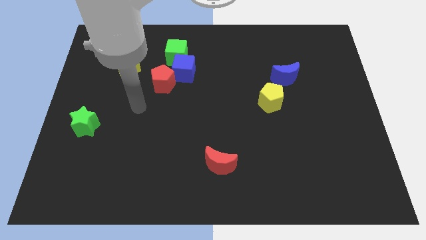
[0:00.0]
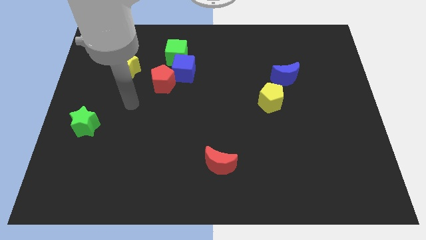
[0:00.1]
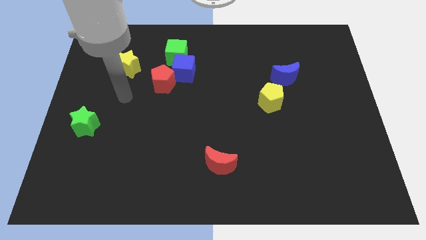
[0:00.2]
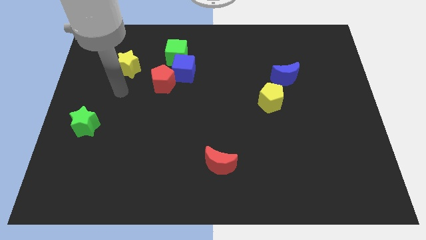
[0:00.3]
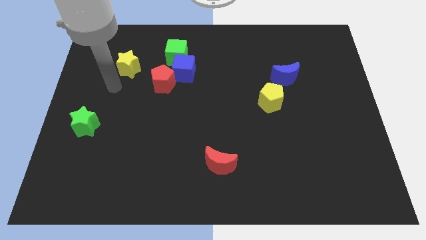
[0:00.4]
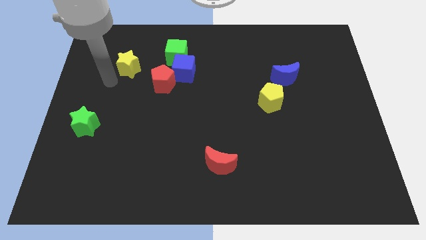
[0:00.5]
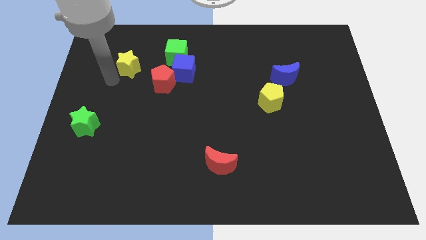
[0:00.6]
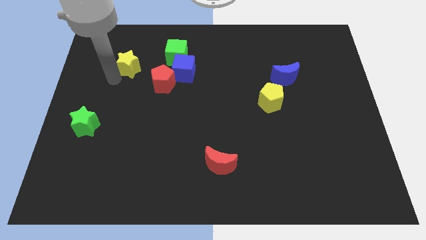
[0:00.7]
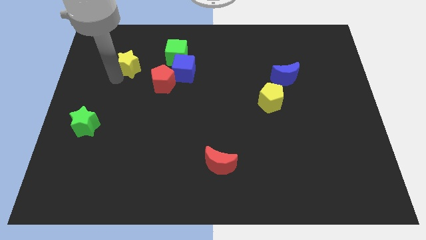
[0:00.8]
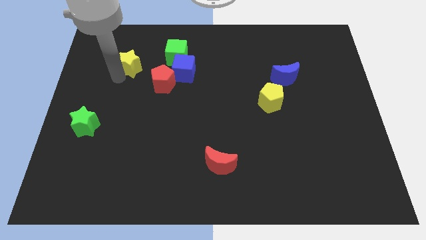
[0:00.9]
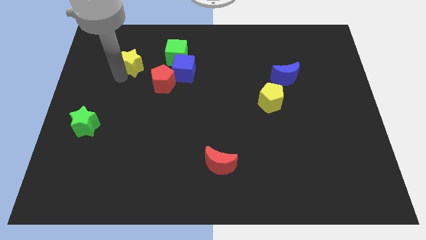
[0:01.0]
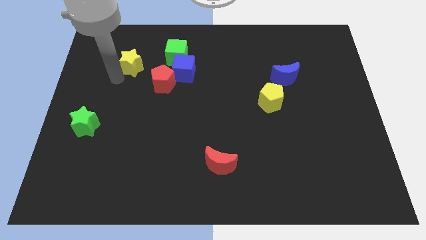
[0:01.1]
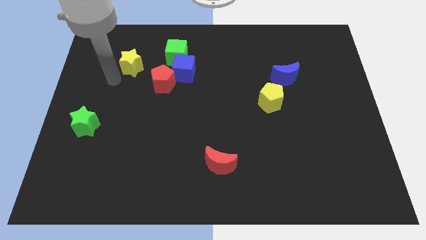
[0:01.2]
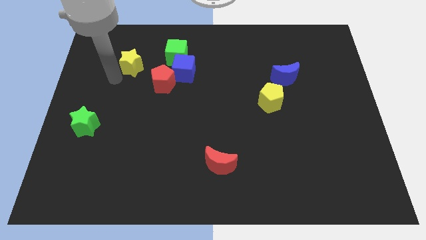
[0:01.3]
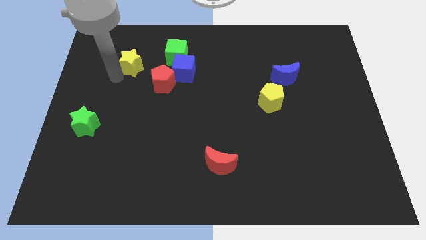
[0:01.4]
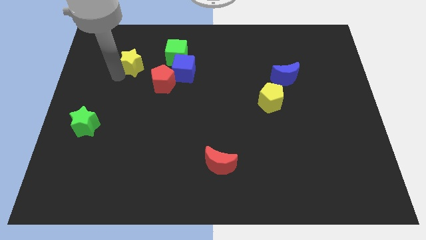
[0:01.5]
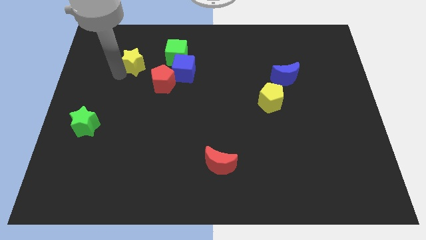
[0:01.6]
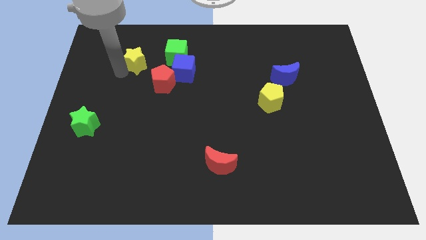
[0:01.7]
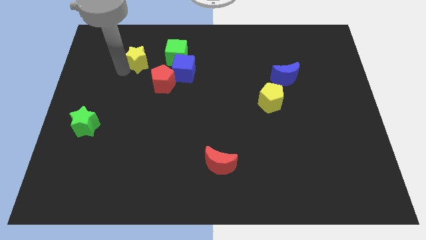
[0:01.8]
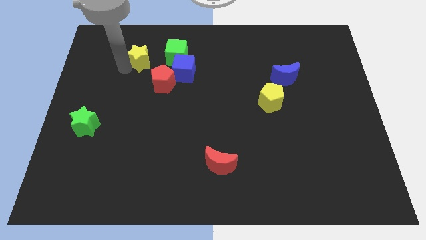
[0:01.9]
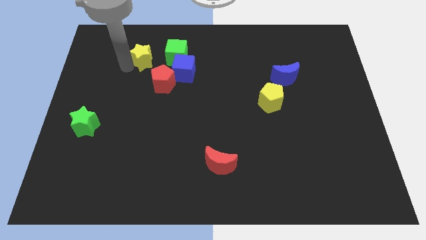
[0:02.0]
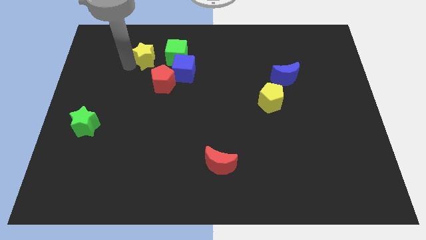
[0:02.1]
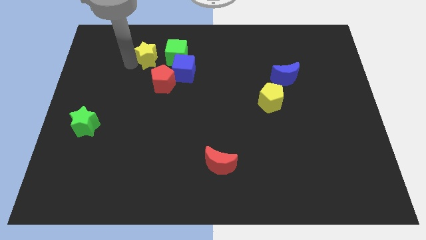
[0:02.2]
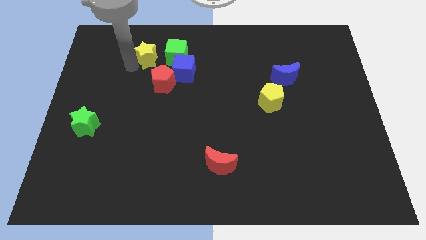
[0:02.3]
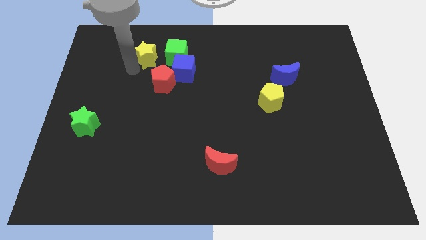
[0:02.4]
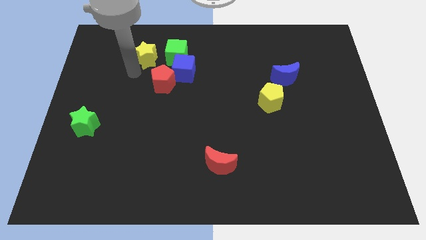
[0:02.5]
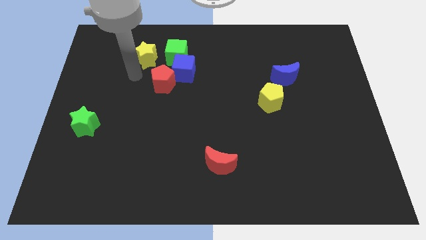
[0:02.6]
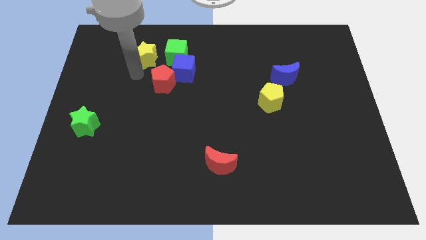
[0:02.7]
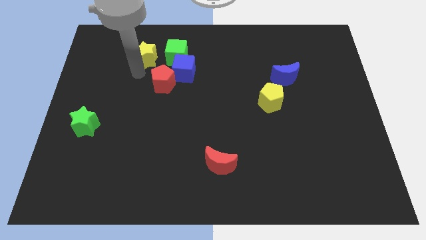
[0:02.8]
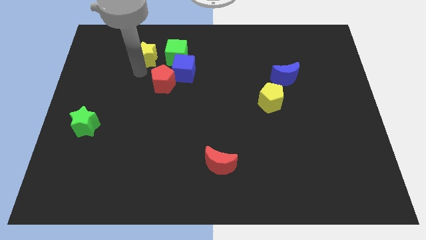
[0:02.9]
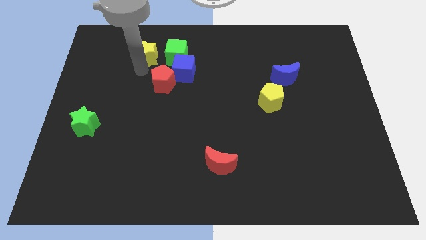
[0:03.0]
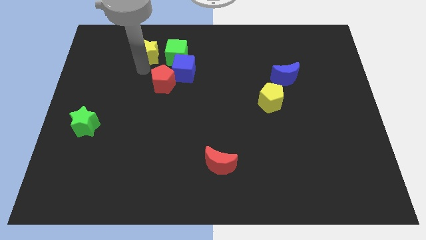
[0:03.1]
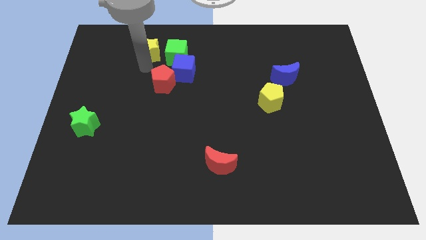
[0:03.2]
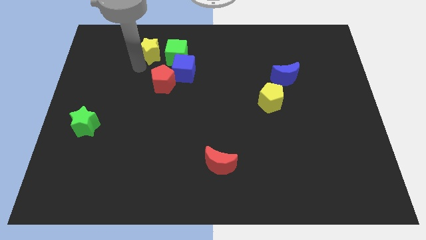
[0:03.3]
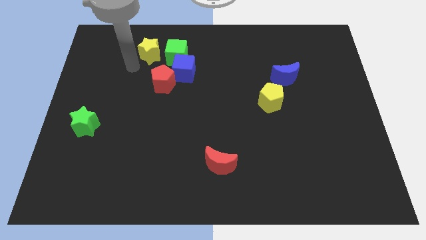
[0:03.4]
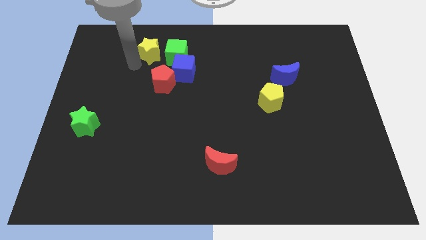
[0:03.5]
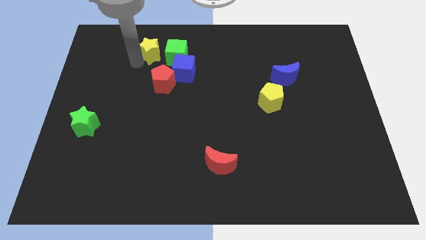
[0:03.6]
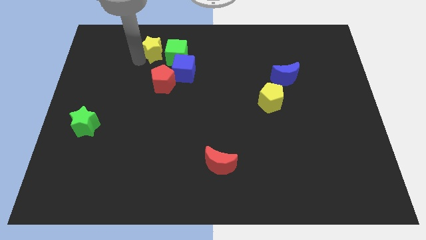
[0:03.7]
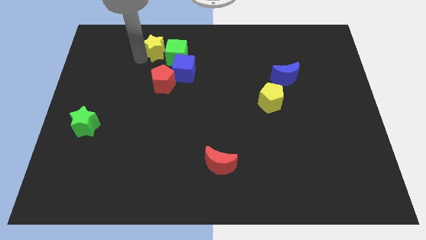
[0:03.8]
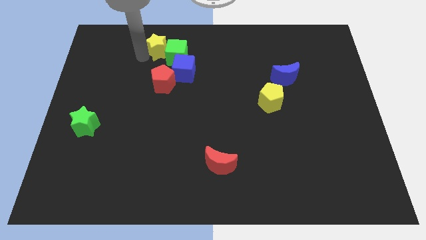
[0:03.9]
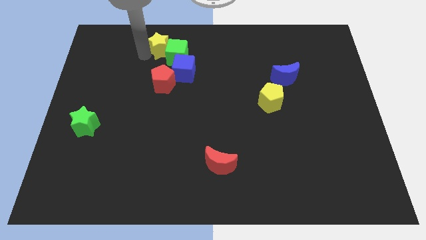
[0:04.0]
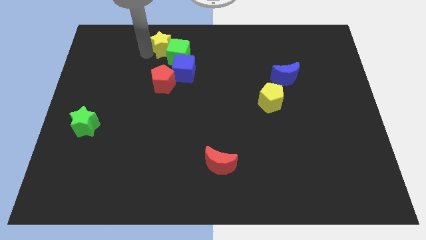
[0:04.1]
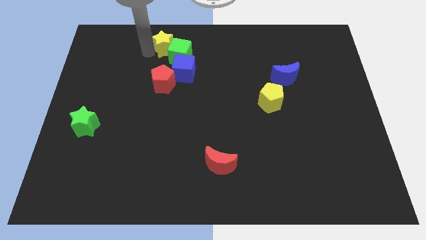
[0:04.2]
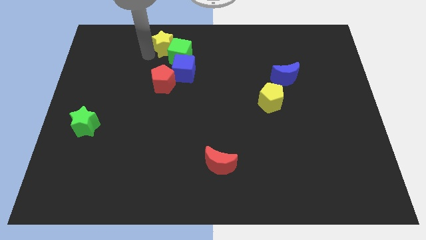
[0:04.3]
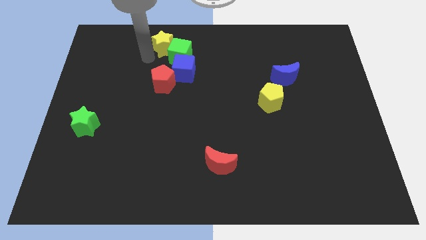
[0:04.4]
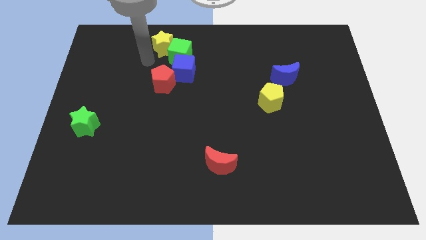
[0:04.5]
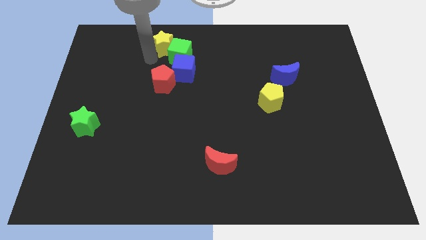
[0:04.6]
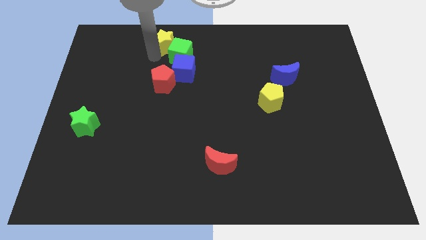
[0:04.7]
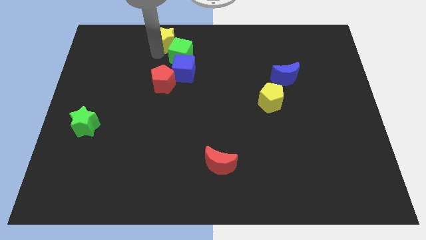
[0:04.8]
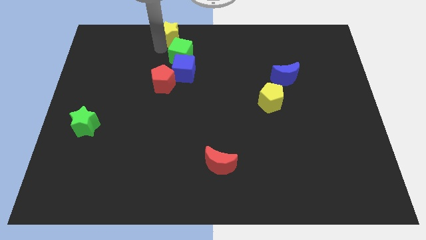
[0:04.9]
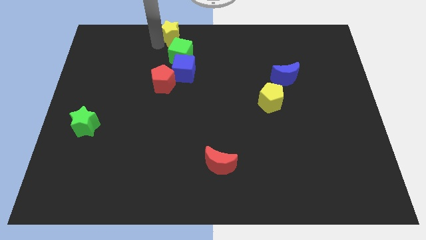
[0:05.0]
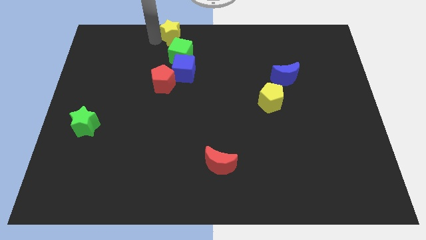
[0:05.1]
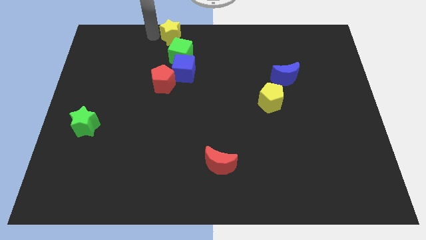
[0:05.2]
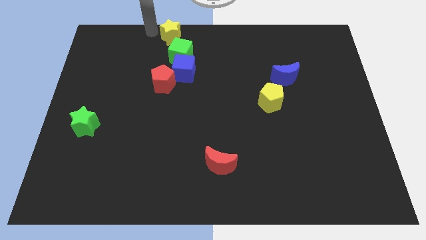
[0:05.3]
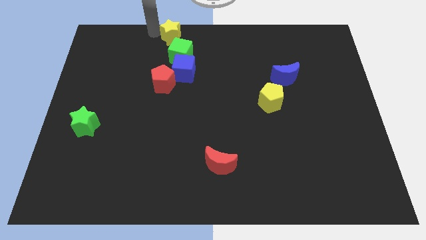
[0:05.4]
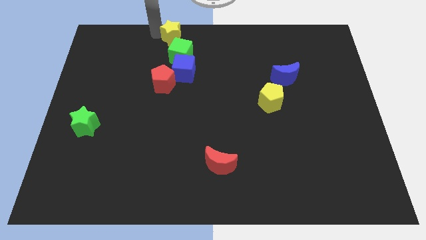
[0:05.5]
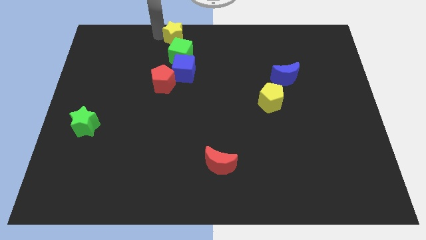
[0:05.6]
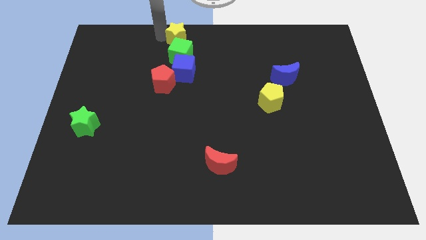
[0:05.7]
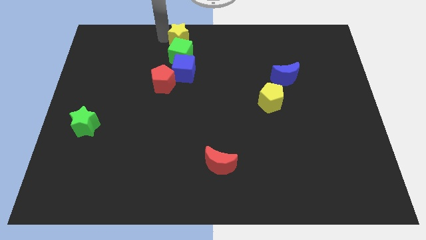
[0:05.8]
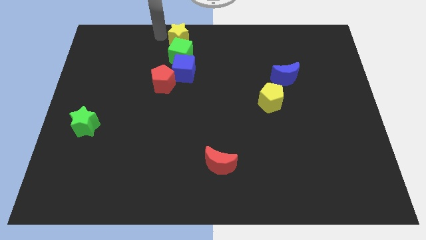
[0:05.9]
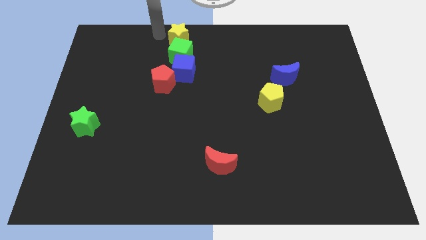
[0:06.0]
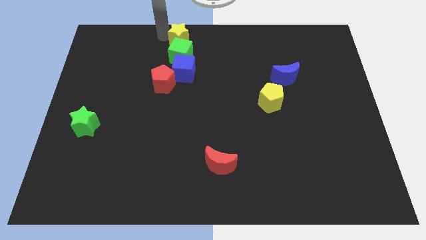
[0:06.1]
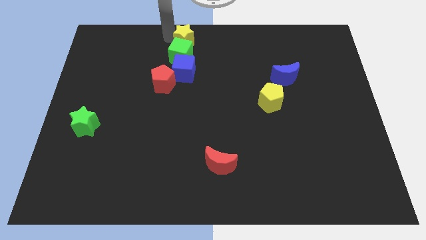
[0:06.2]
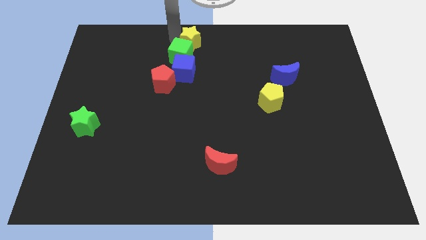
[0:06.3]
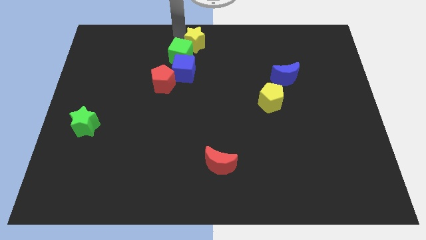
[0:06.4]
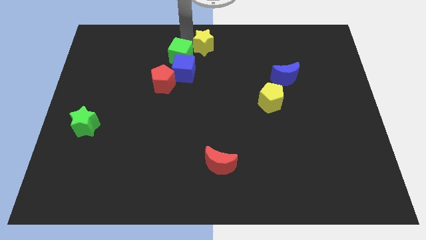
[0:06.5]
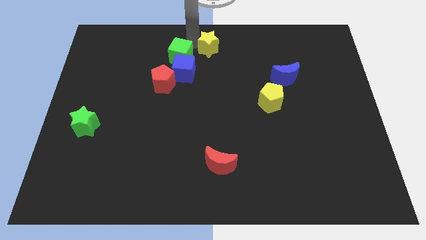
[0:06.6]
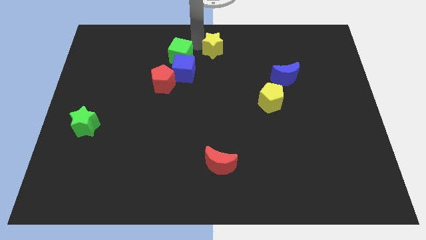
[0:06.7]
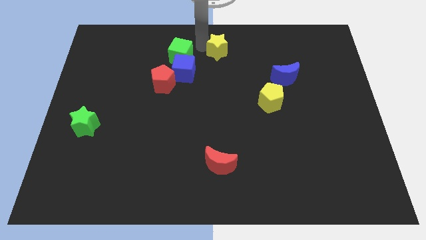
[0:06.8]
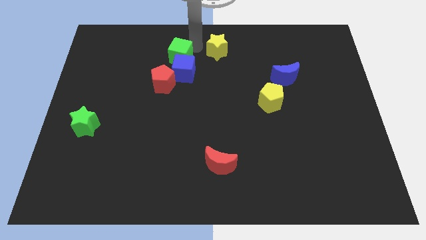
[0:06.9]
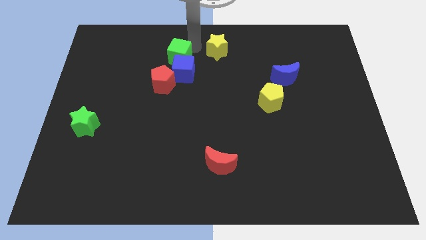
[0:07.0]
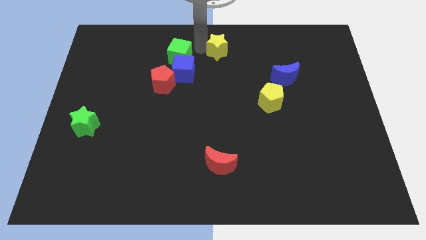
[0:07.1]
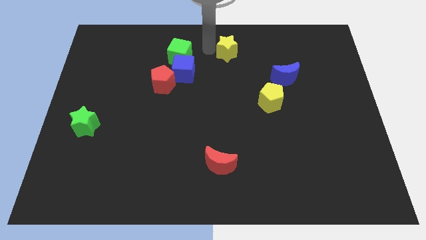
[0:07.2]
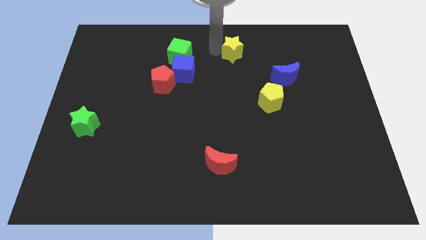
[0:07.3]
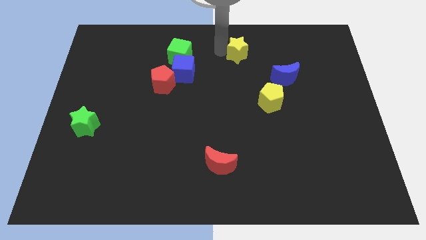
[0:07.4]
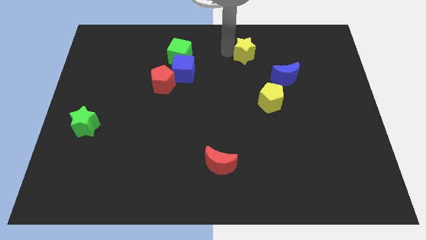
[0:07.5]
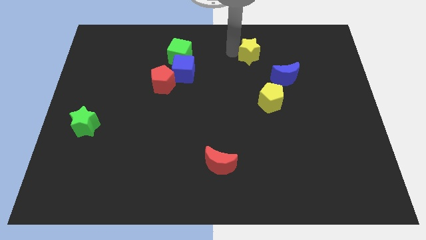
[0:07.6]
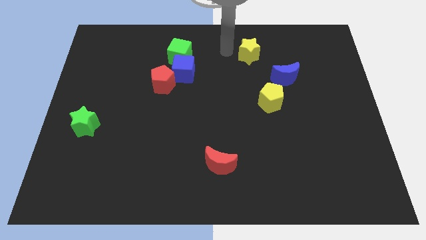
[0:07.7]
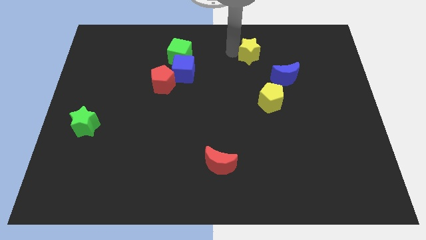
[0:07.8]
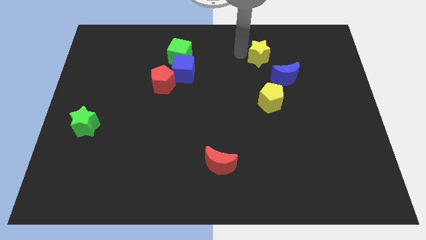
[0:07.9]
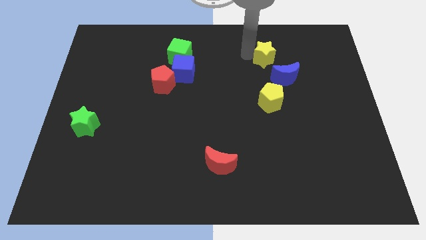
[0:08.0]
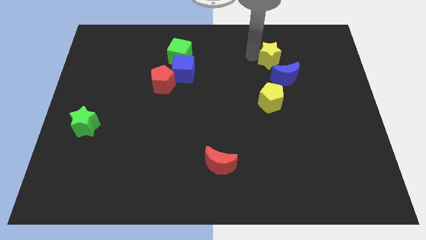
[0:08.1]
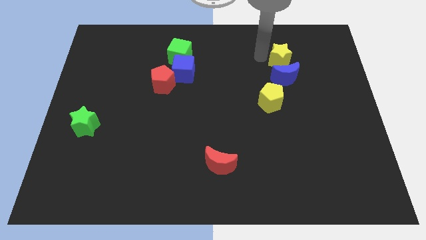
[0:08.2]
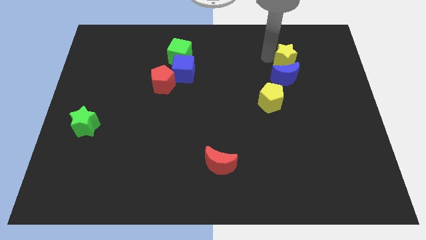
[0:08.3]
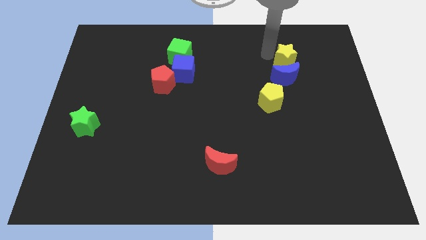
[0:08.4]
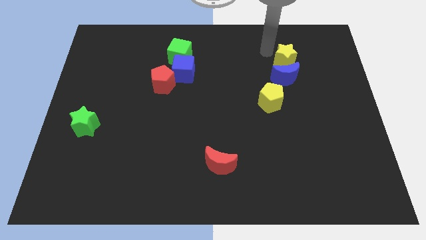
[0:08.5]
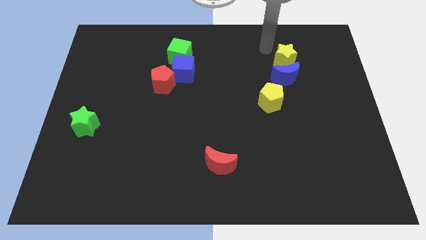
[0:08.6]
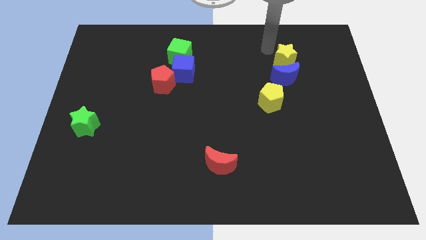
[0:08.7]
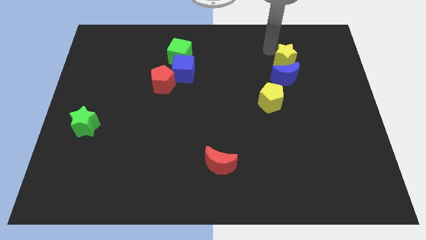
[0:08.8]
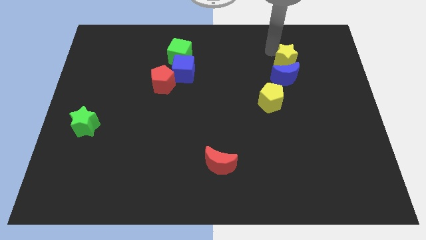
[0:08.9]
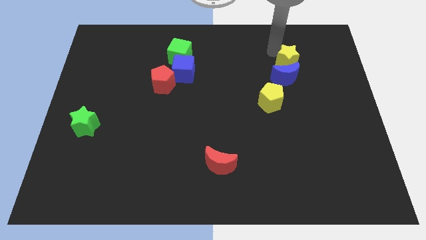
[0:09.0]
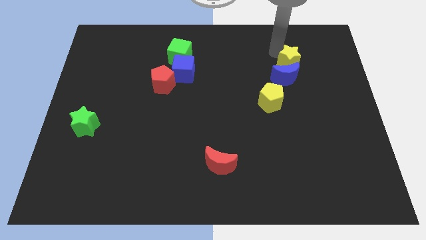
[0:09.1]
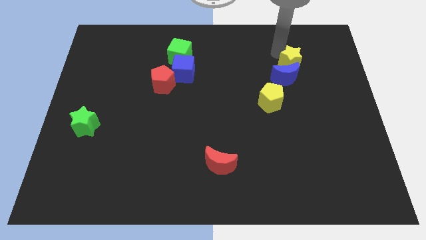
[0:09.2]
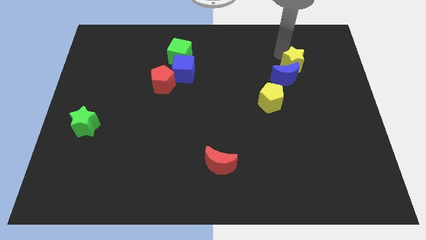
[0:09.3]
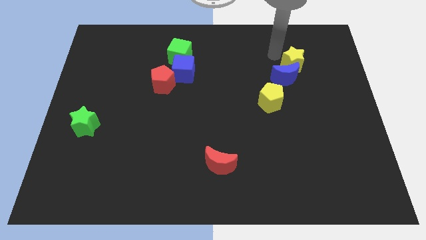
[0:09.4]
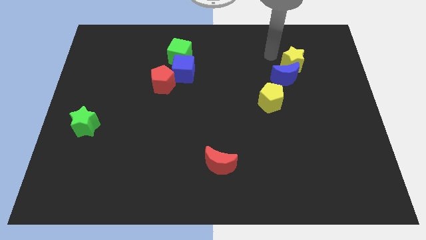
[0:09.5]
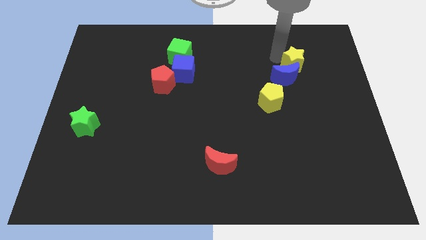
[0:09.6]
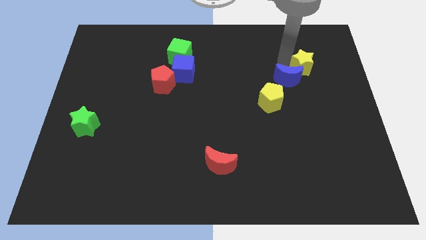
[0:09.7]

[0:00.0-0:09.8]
move the yellow star right of the blue moon
